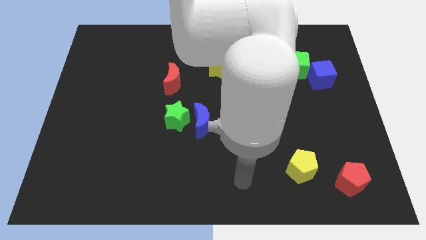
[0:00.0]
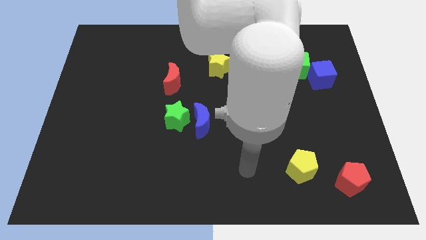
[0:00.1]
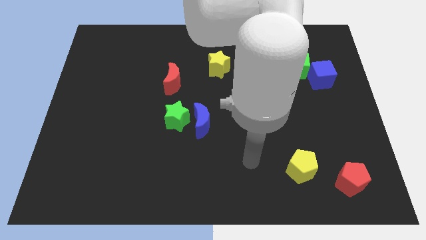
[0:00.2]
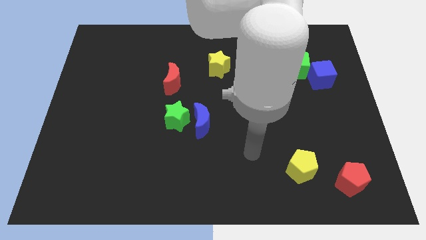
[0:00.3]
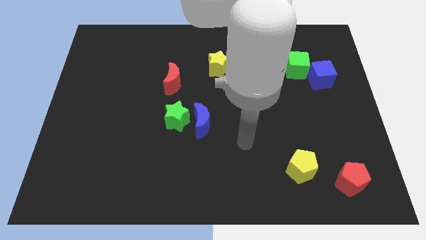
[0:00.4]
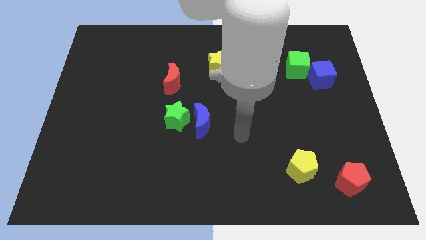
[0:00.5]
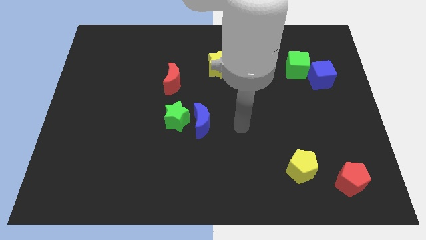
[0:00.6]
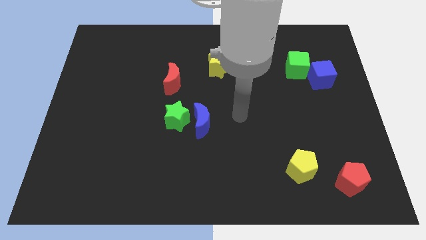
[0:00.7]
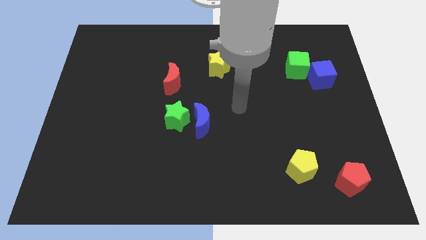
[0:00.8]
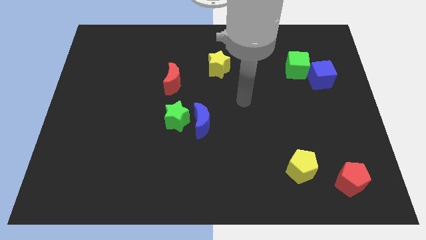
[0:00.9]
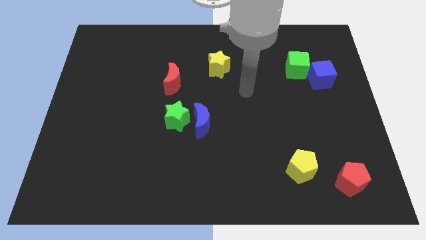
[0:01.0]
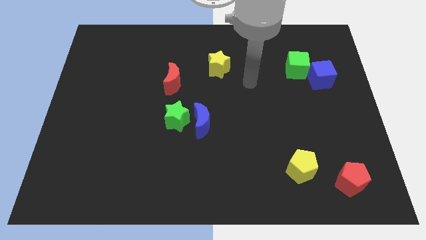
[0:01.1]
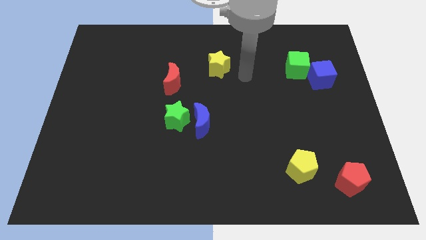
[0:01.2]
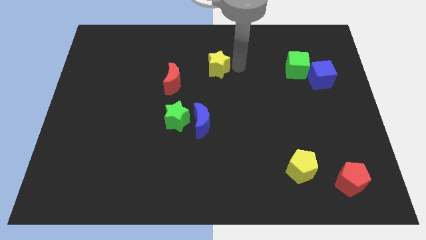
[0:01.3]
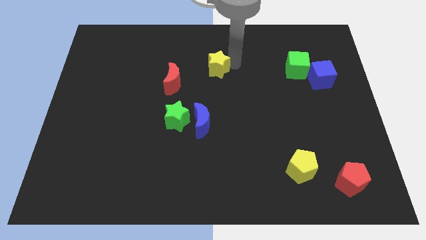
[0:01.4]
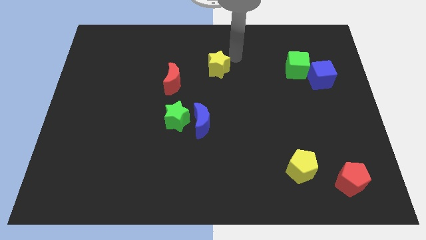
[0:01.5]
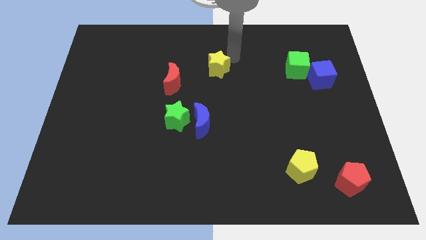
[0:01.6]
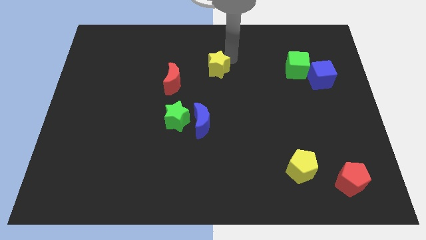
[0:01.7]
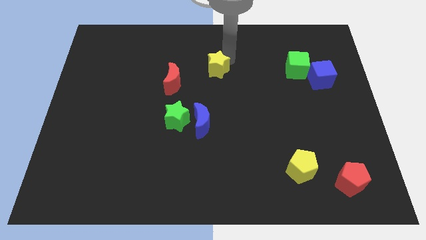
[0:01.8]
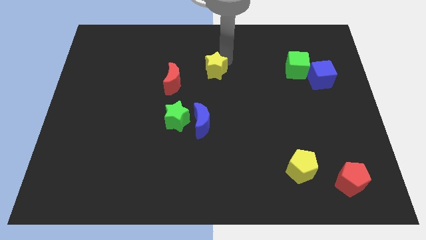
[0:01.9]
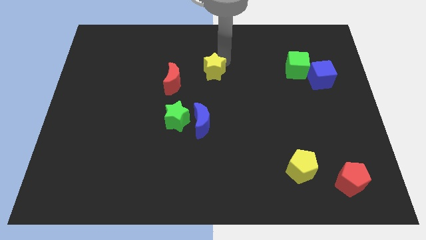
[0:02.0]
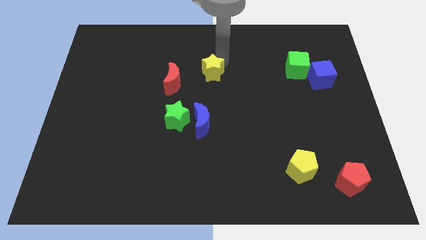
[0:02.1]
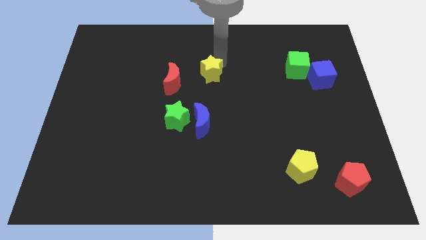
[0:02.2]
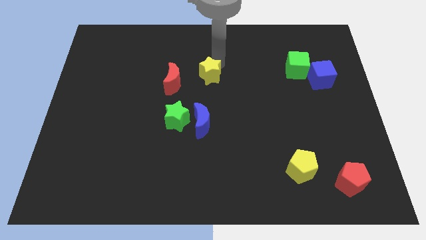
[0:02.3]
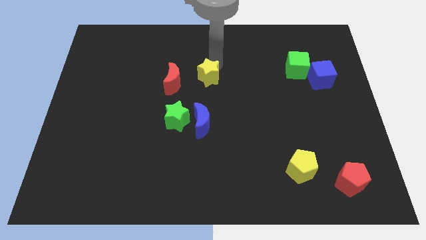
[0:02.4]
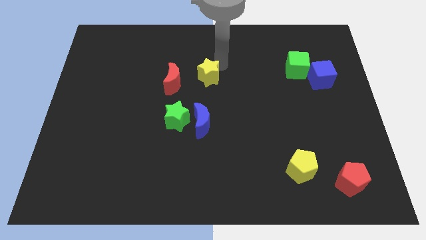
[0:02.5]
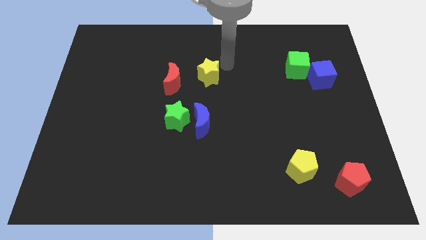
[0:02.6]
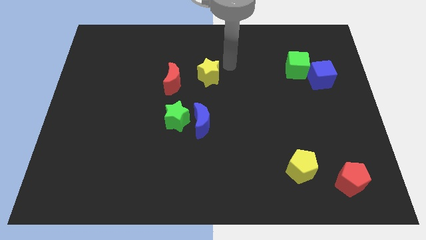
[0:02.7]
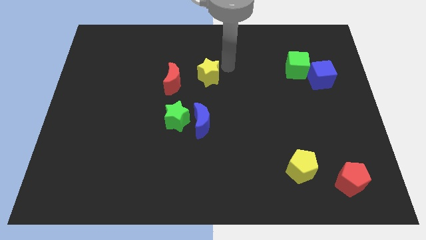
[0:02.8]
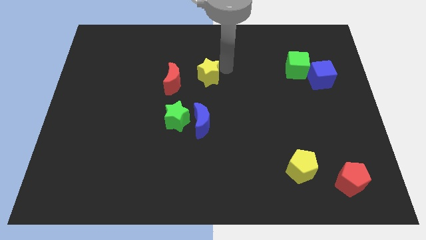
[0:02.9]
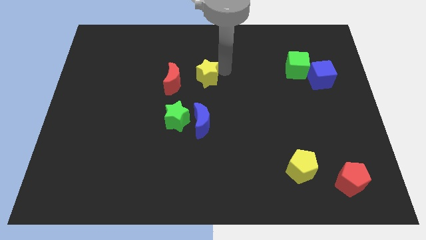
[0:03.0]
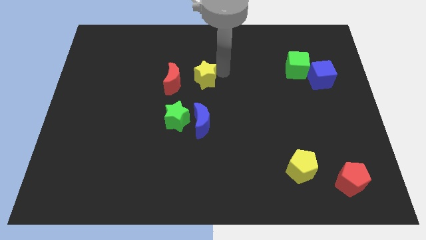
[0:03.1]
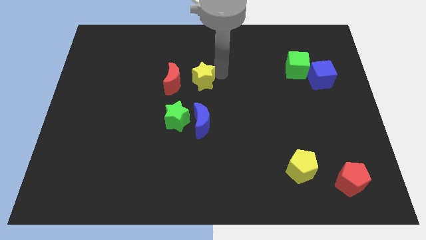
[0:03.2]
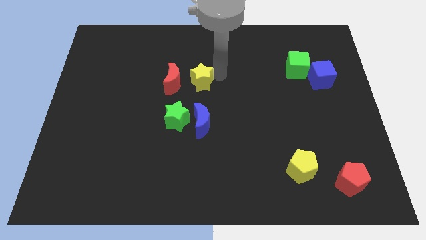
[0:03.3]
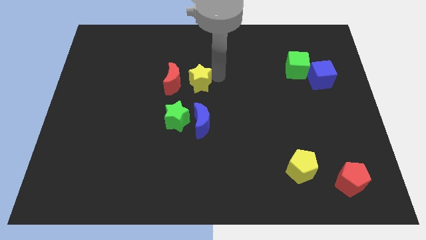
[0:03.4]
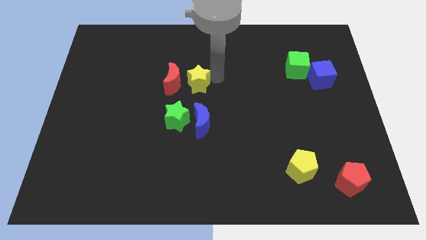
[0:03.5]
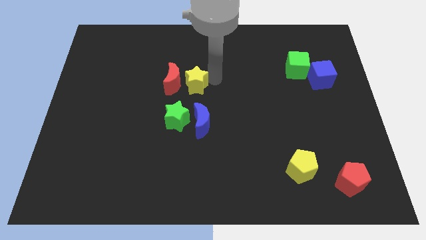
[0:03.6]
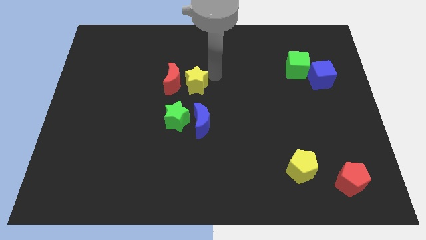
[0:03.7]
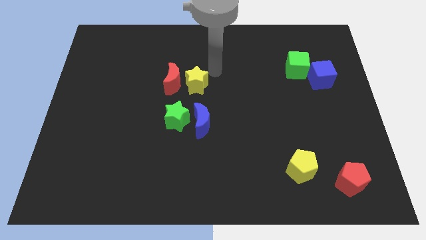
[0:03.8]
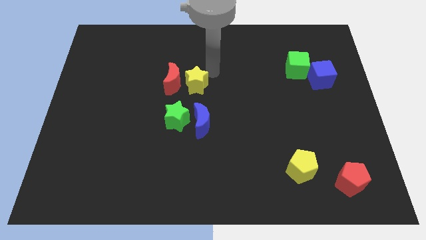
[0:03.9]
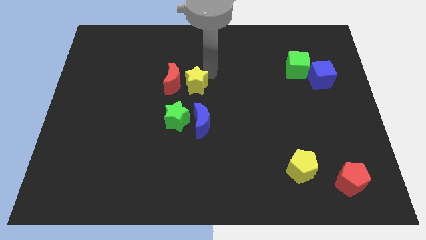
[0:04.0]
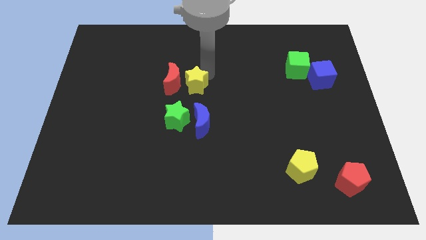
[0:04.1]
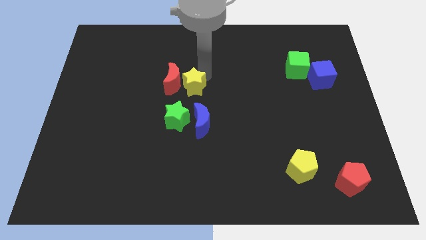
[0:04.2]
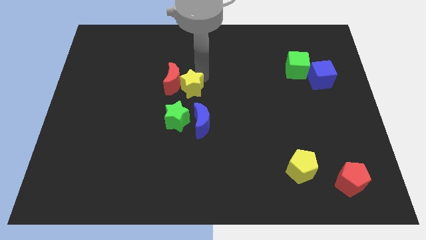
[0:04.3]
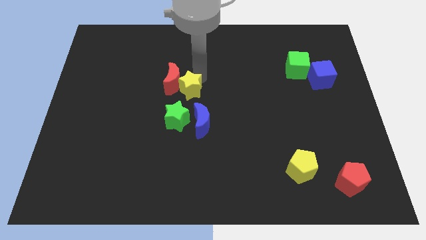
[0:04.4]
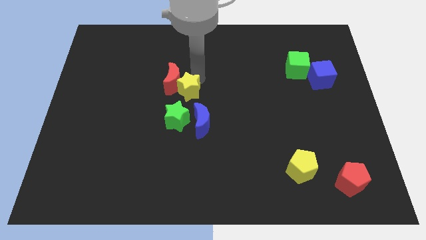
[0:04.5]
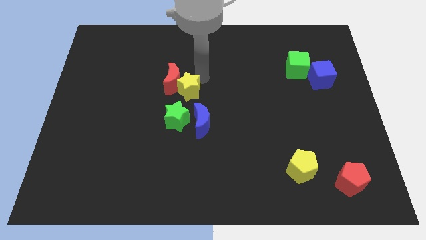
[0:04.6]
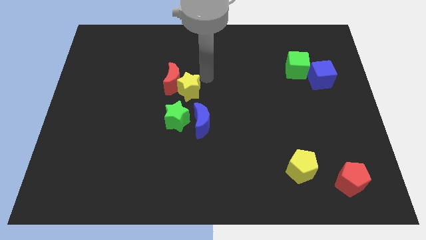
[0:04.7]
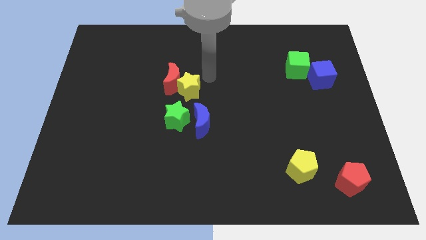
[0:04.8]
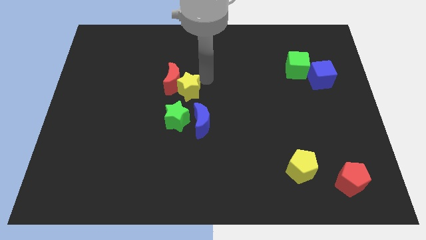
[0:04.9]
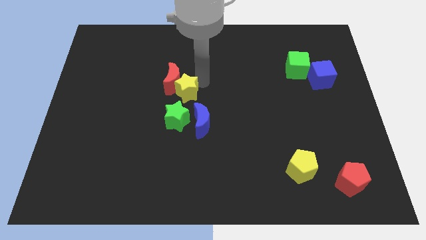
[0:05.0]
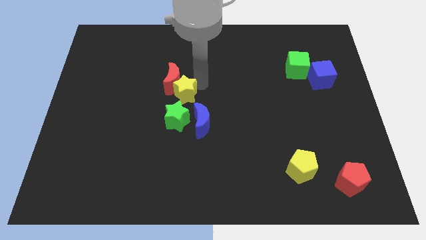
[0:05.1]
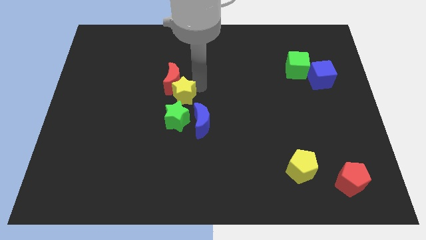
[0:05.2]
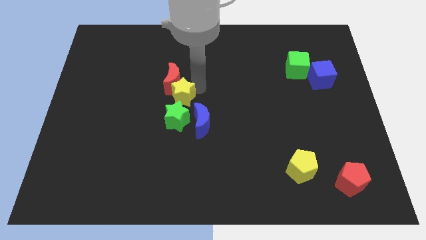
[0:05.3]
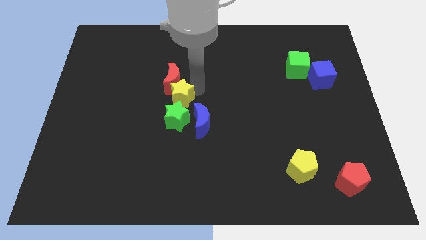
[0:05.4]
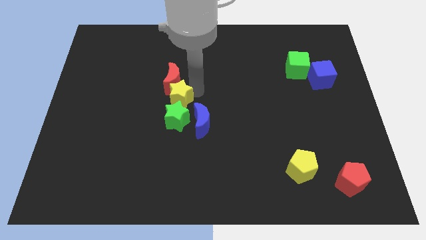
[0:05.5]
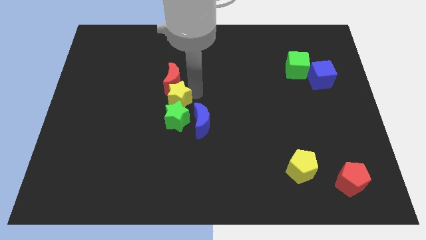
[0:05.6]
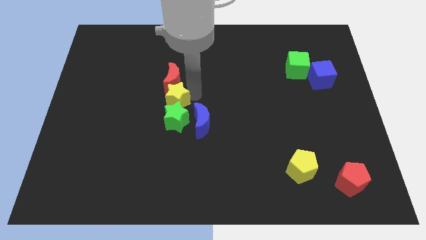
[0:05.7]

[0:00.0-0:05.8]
slide the yellow star to the bottom left side of the red moon

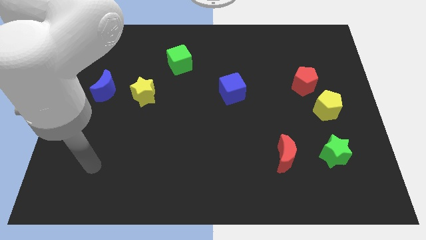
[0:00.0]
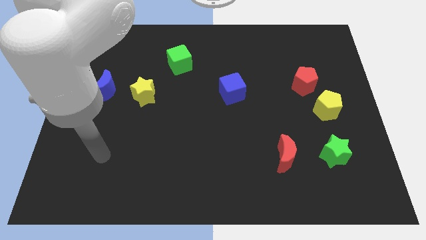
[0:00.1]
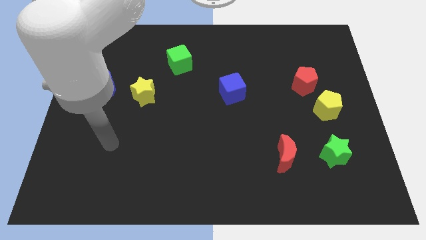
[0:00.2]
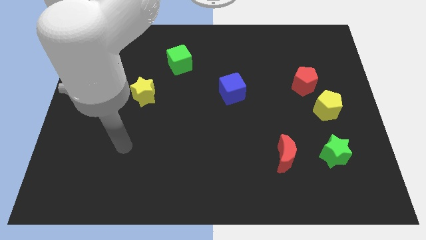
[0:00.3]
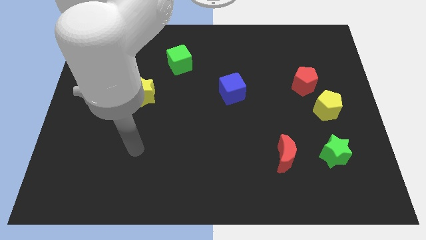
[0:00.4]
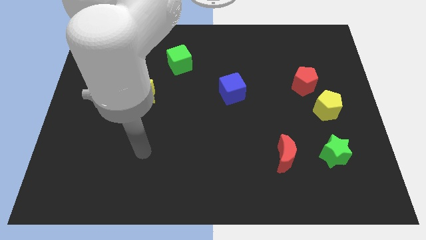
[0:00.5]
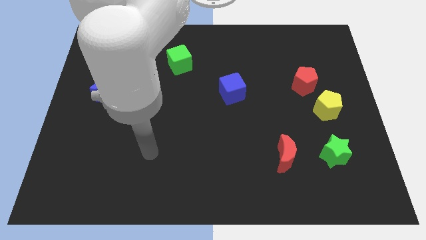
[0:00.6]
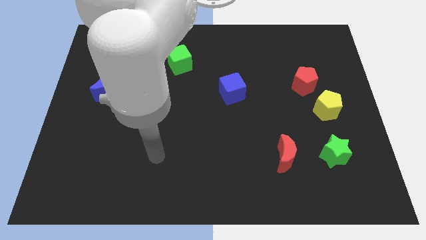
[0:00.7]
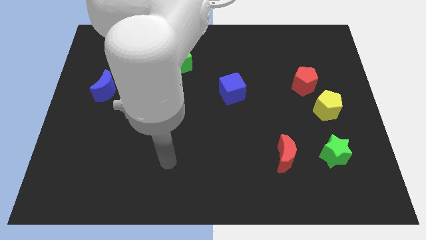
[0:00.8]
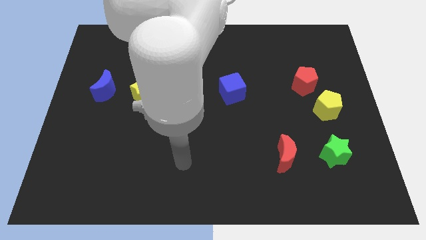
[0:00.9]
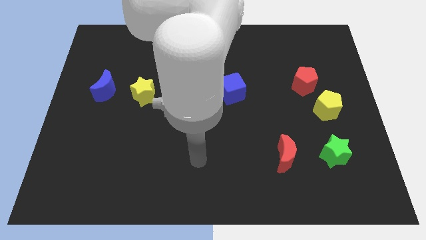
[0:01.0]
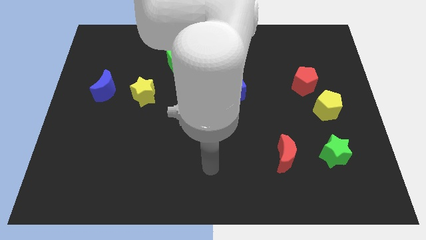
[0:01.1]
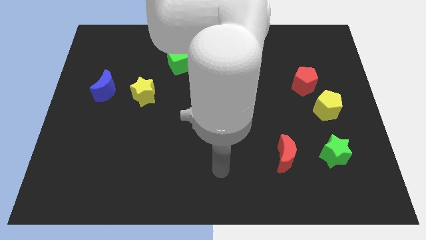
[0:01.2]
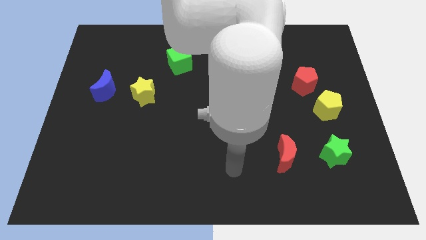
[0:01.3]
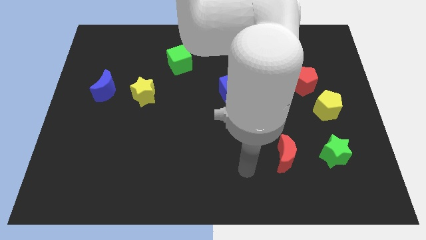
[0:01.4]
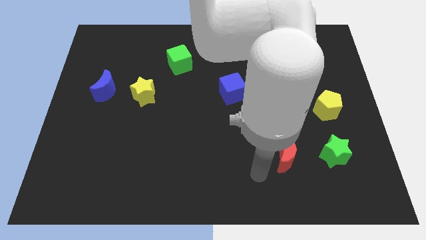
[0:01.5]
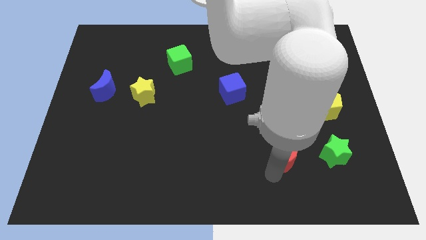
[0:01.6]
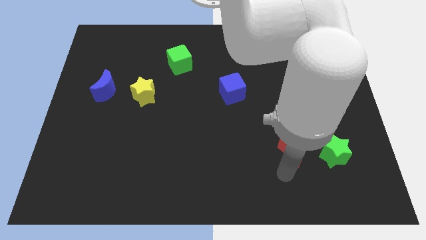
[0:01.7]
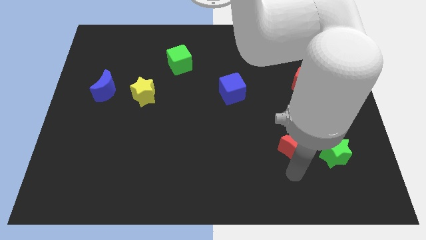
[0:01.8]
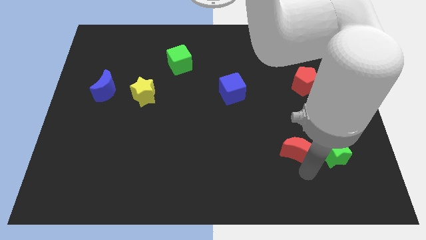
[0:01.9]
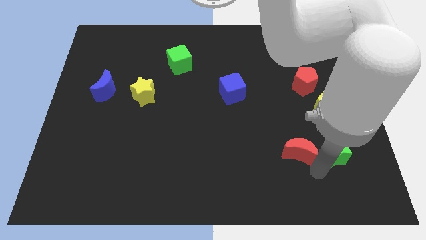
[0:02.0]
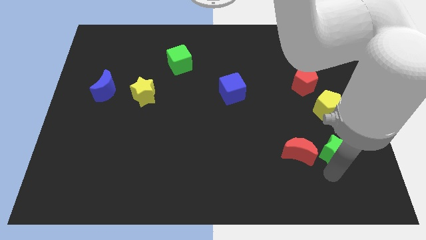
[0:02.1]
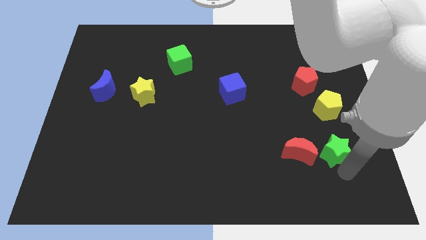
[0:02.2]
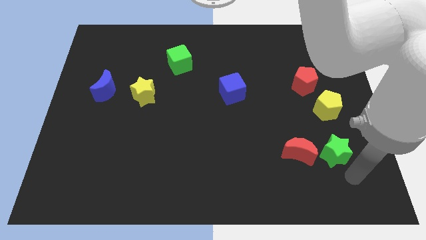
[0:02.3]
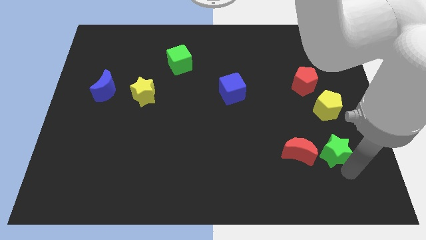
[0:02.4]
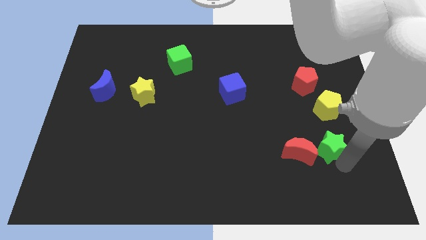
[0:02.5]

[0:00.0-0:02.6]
move the green star to the top right of the red moon
